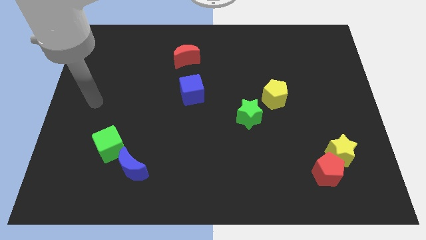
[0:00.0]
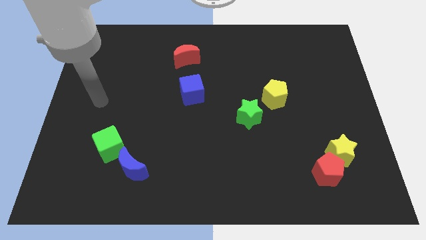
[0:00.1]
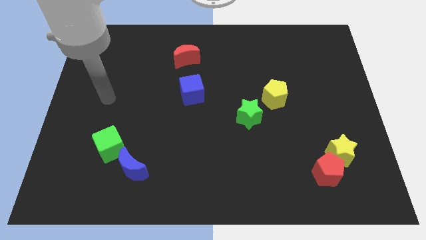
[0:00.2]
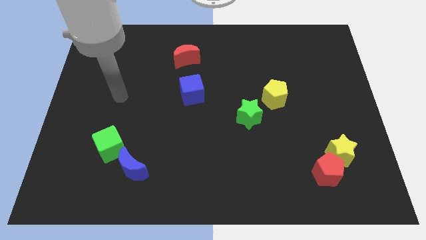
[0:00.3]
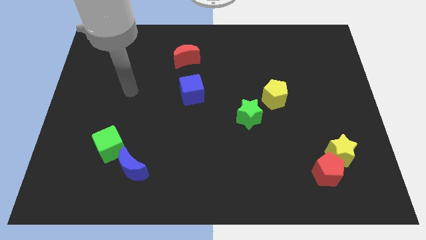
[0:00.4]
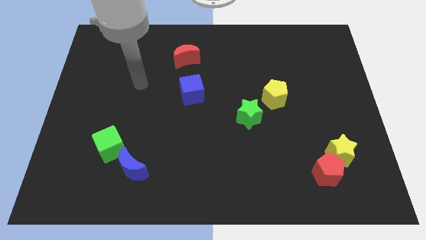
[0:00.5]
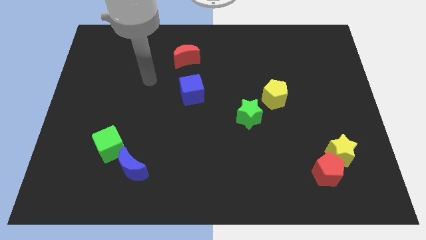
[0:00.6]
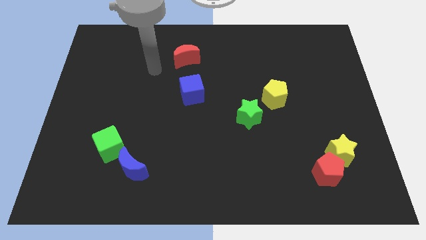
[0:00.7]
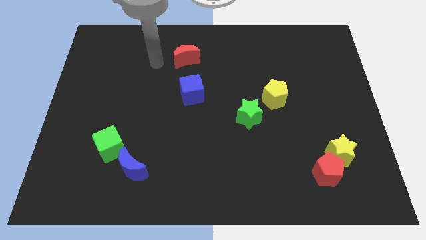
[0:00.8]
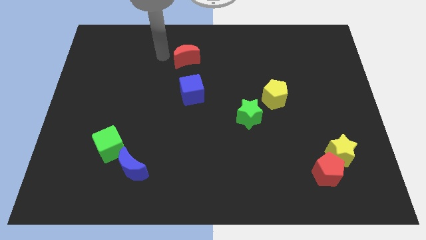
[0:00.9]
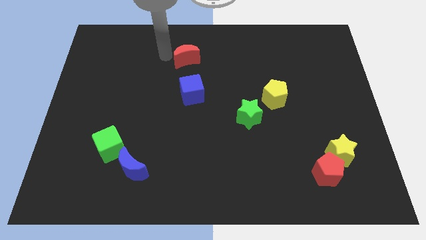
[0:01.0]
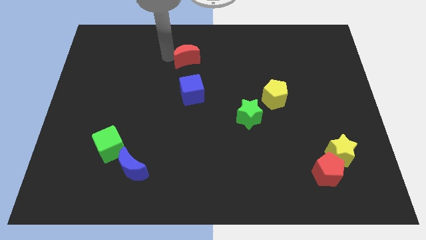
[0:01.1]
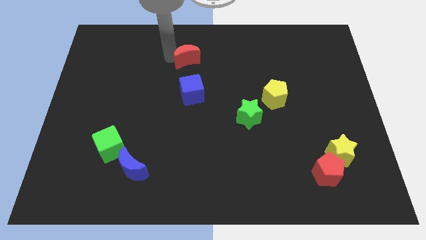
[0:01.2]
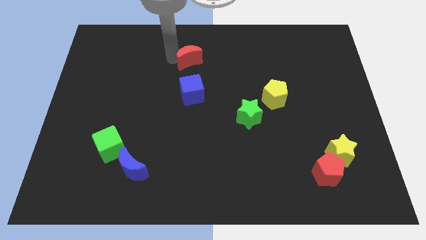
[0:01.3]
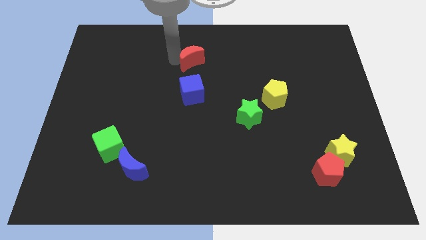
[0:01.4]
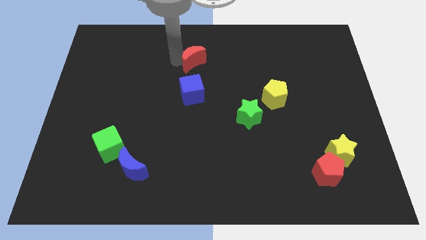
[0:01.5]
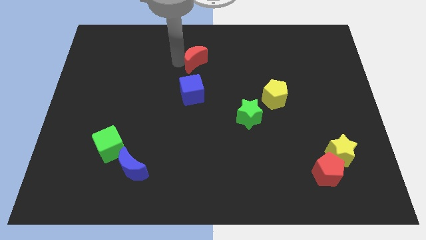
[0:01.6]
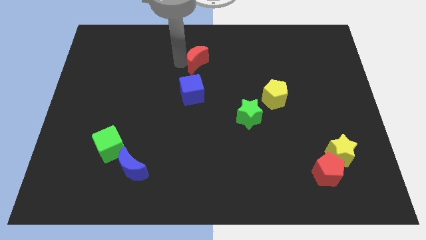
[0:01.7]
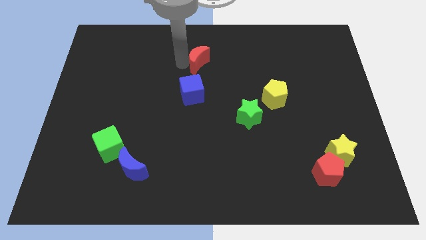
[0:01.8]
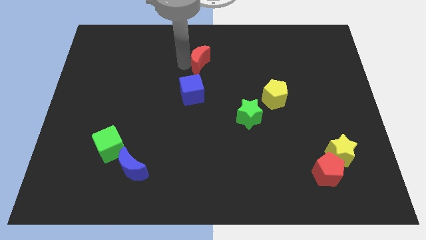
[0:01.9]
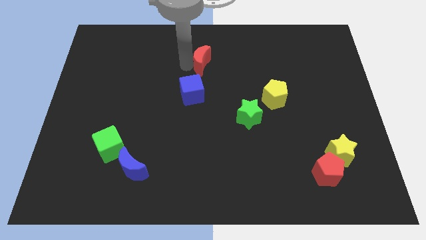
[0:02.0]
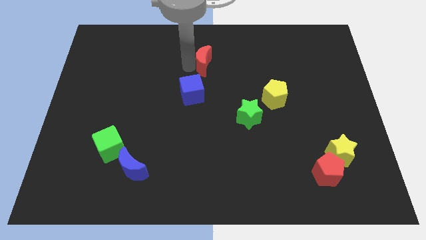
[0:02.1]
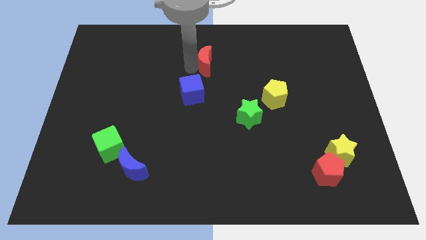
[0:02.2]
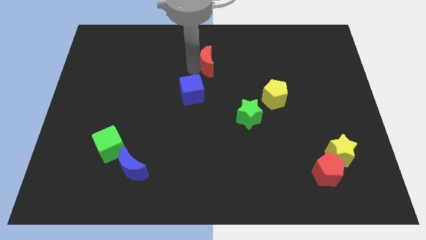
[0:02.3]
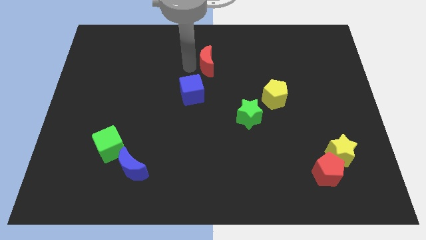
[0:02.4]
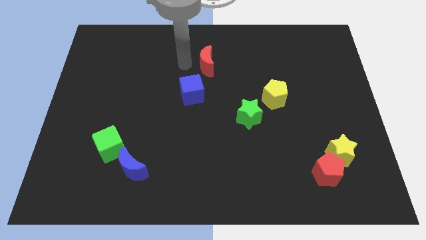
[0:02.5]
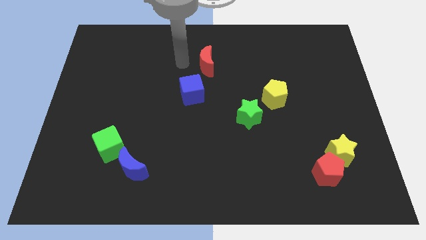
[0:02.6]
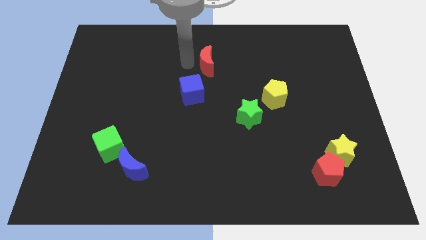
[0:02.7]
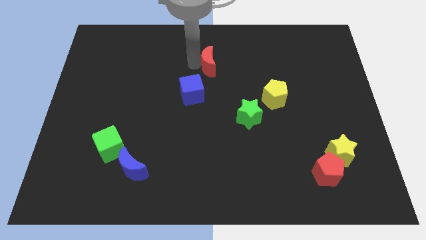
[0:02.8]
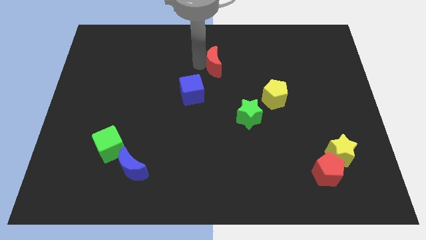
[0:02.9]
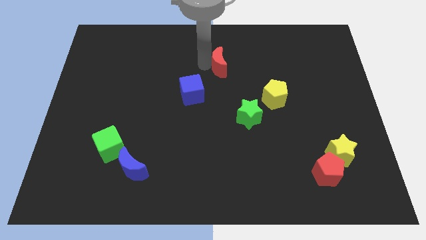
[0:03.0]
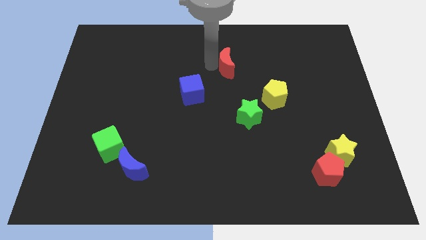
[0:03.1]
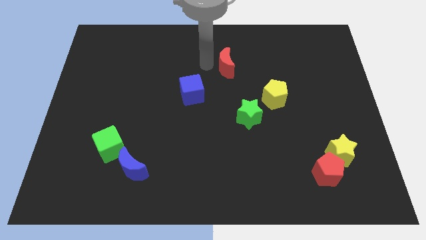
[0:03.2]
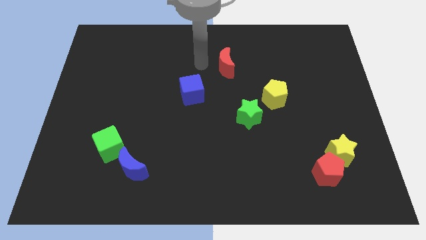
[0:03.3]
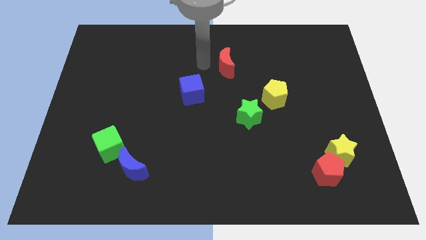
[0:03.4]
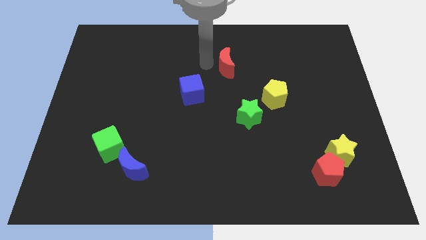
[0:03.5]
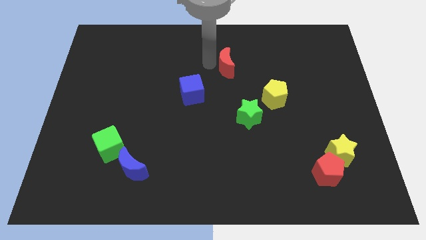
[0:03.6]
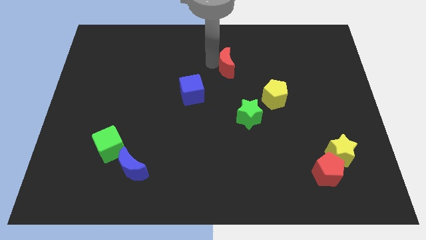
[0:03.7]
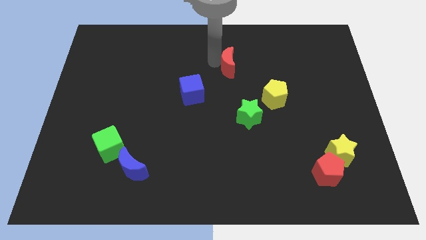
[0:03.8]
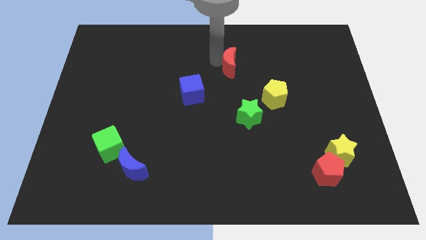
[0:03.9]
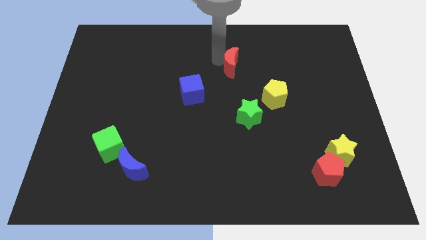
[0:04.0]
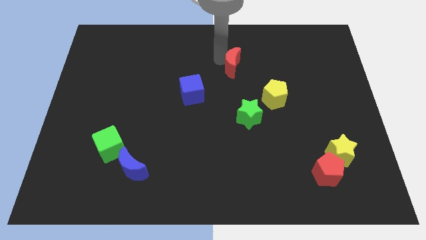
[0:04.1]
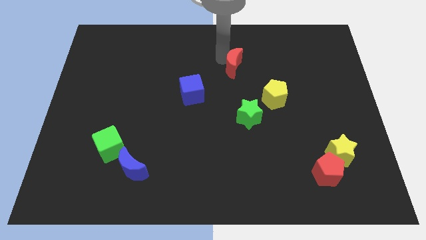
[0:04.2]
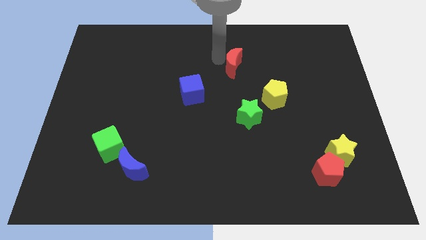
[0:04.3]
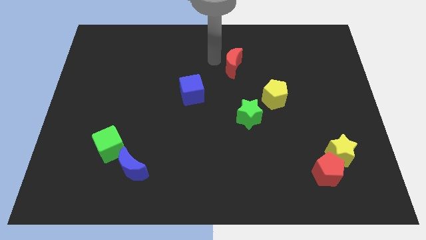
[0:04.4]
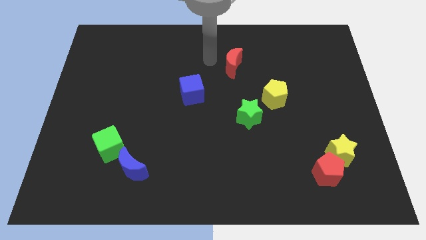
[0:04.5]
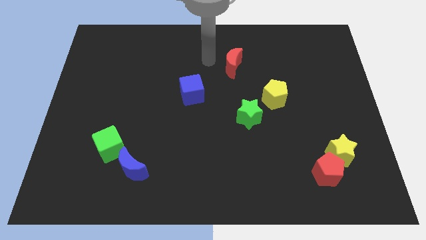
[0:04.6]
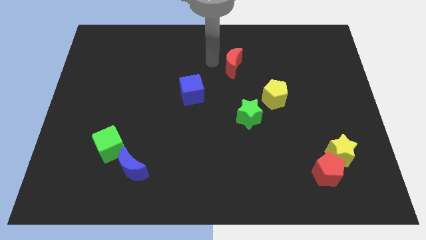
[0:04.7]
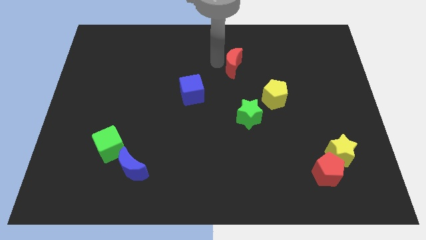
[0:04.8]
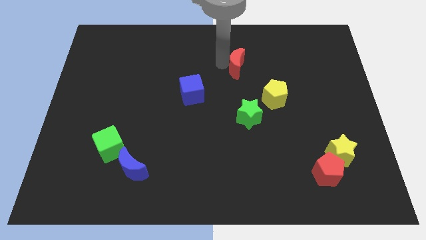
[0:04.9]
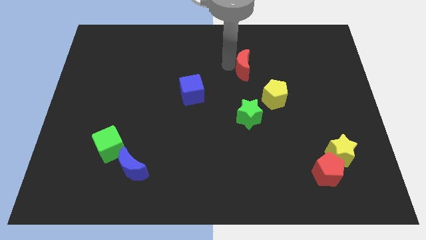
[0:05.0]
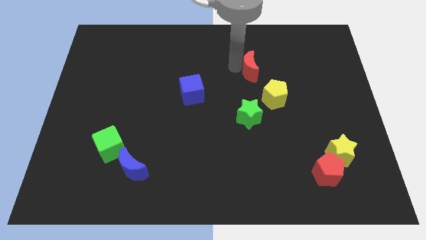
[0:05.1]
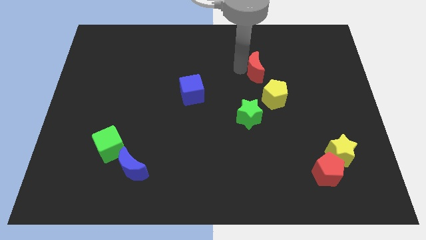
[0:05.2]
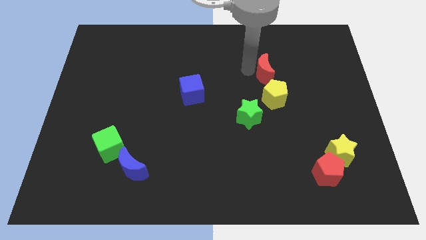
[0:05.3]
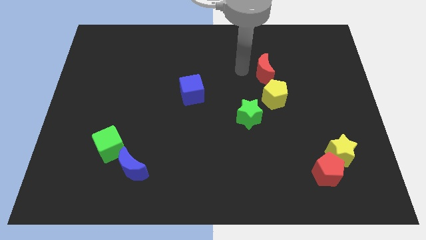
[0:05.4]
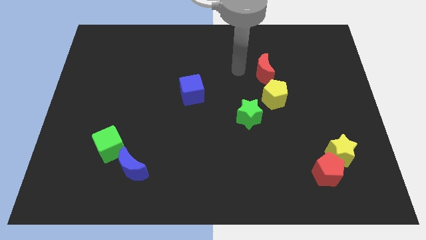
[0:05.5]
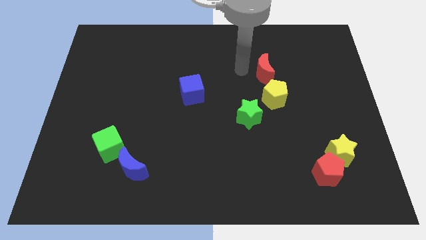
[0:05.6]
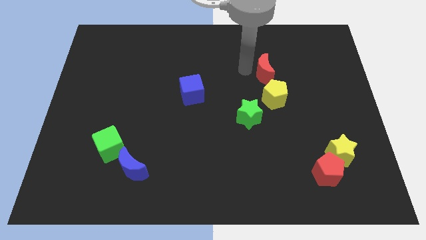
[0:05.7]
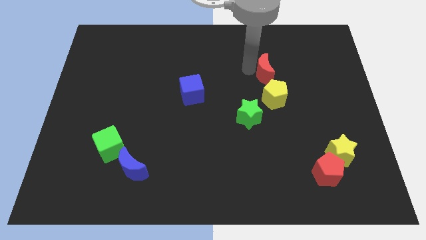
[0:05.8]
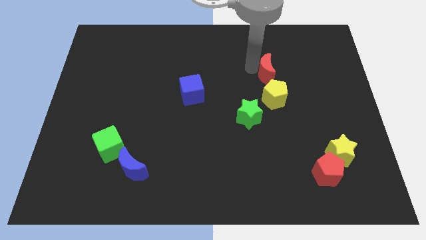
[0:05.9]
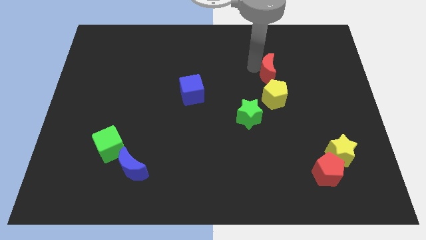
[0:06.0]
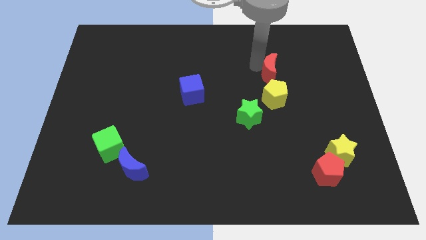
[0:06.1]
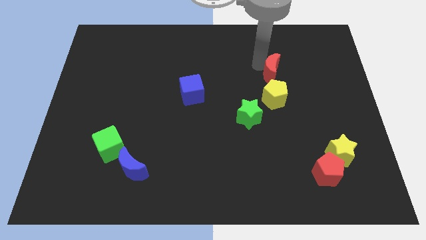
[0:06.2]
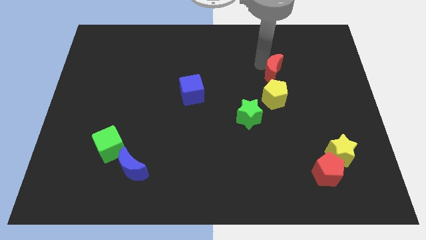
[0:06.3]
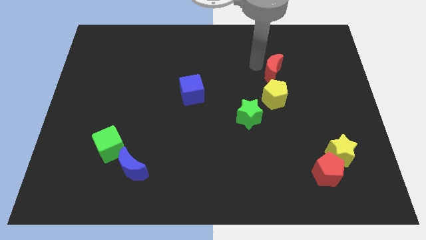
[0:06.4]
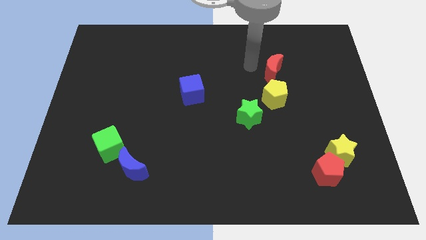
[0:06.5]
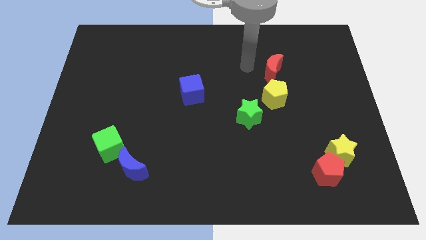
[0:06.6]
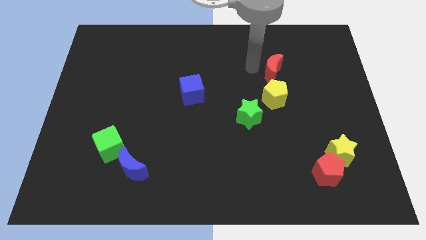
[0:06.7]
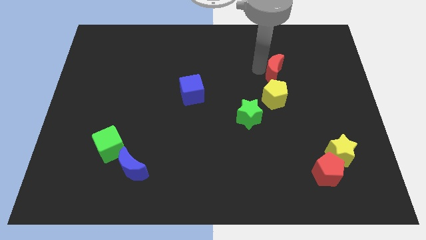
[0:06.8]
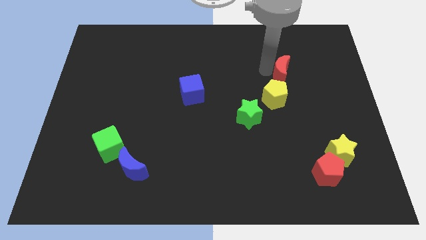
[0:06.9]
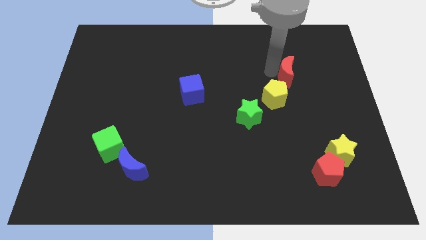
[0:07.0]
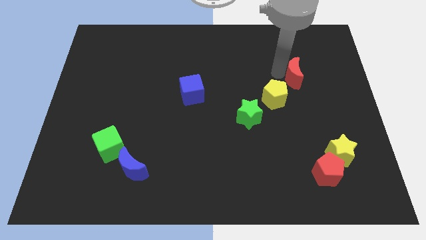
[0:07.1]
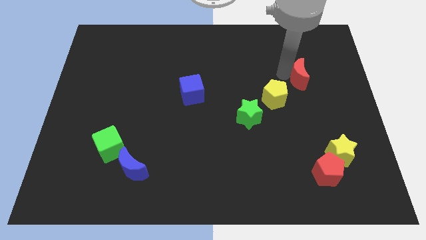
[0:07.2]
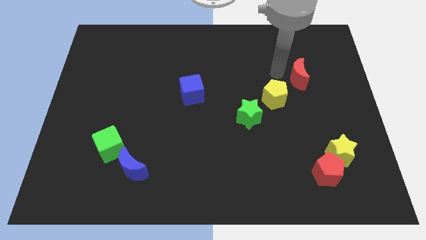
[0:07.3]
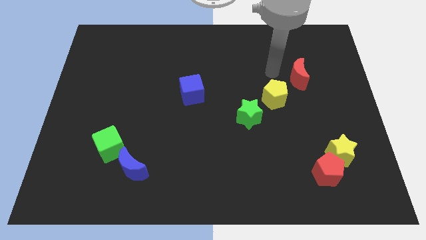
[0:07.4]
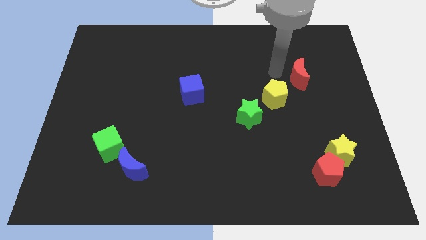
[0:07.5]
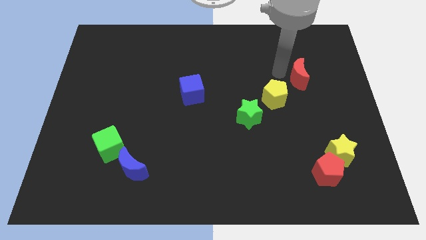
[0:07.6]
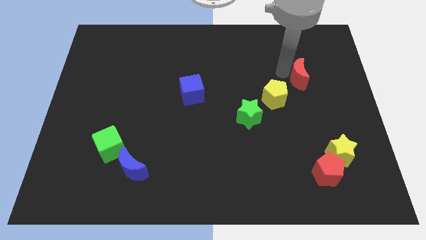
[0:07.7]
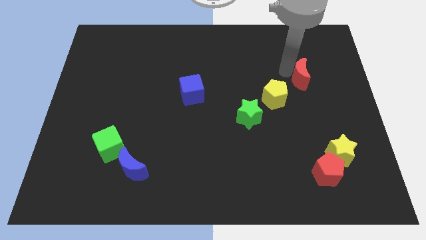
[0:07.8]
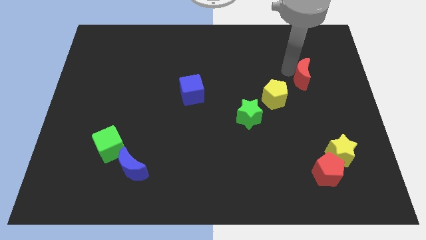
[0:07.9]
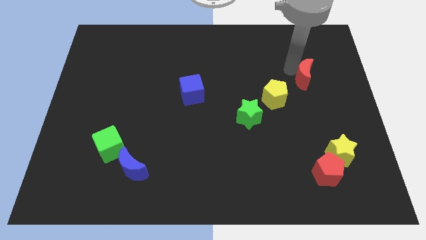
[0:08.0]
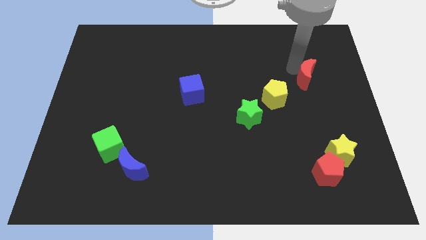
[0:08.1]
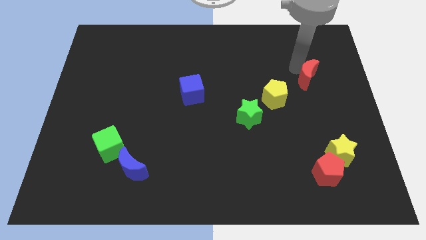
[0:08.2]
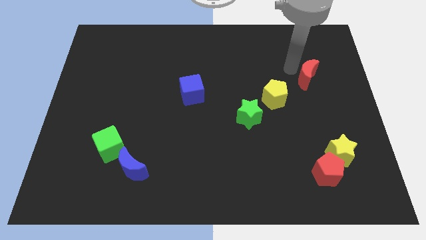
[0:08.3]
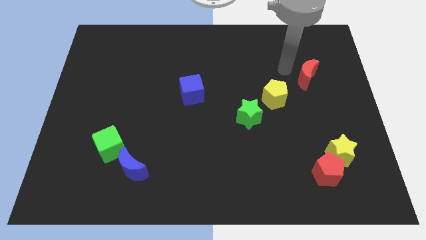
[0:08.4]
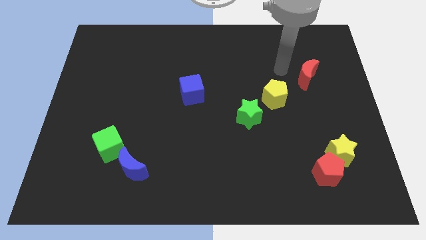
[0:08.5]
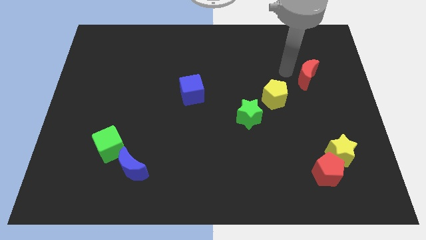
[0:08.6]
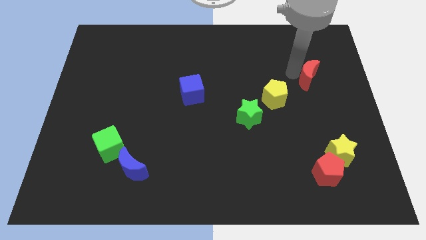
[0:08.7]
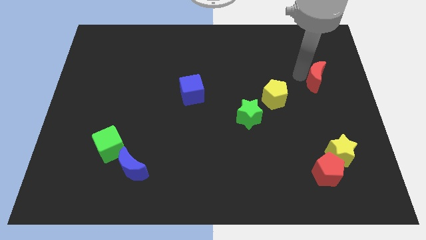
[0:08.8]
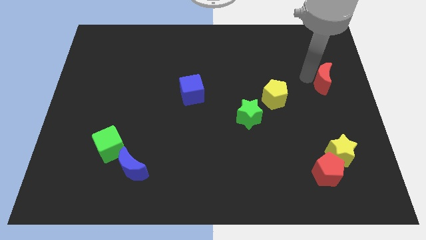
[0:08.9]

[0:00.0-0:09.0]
slide the red moon to the right side
